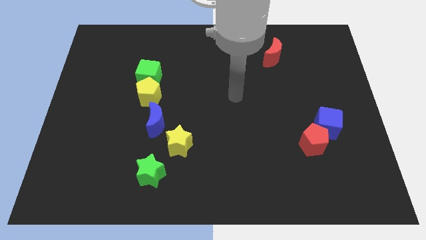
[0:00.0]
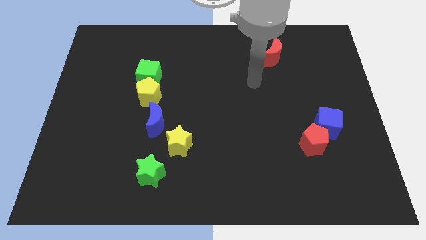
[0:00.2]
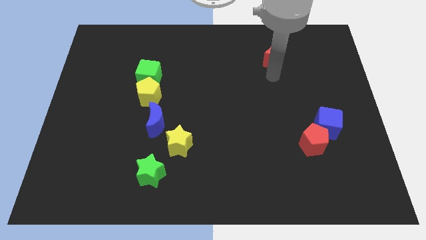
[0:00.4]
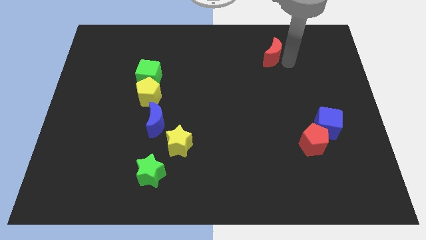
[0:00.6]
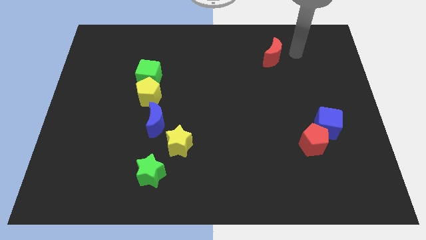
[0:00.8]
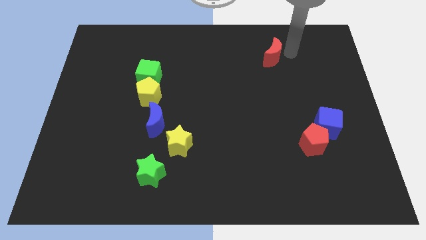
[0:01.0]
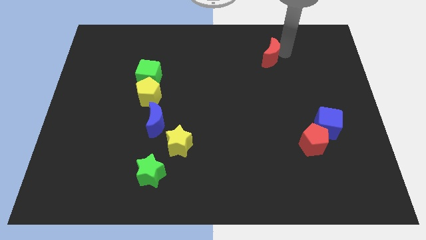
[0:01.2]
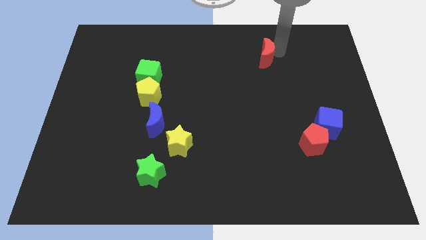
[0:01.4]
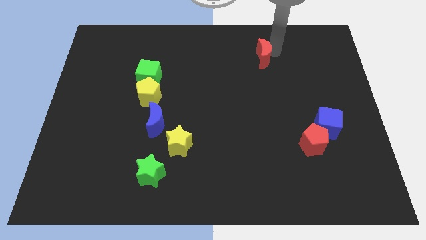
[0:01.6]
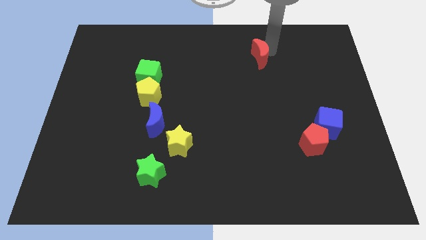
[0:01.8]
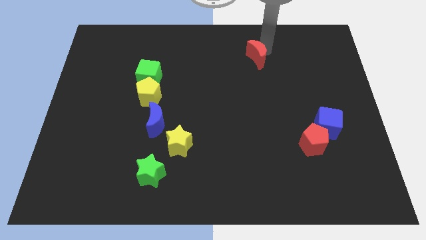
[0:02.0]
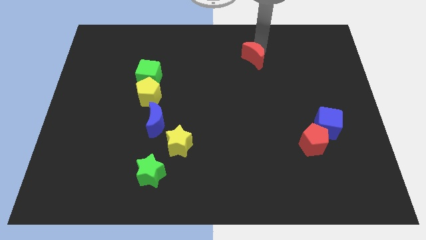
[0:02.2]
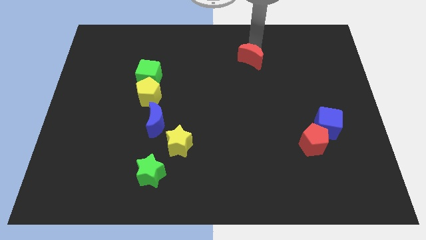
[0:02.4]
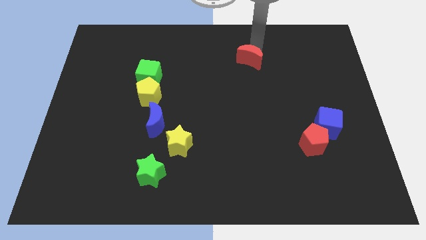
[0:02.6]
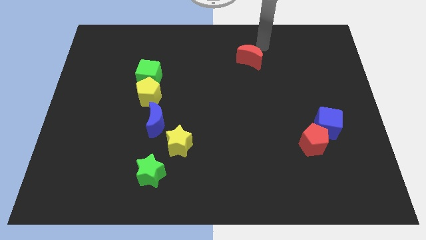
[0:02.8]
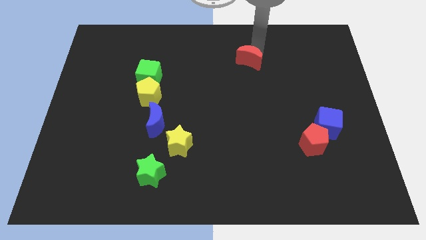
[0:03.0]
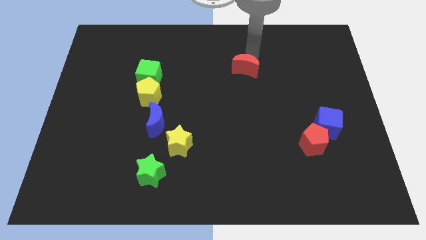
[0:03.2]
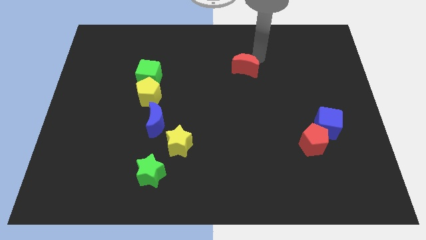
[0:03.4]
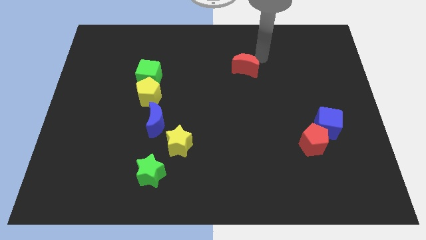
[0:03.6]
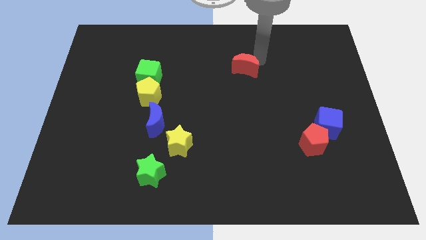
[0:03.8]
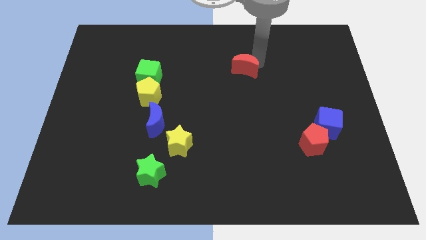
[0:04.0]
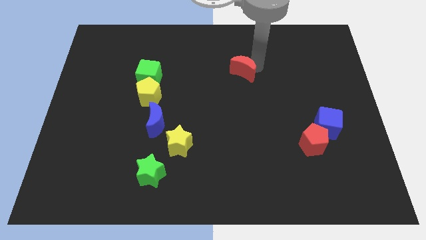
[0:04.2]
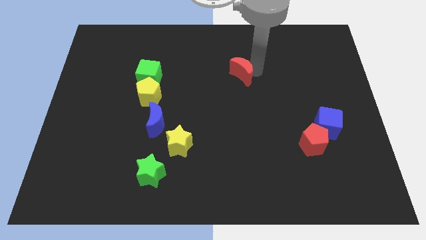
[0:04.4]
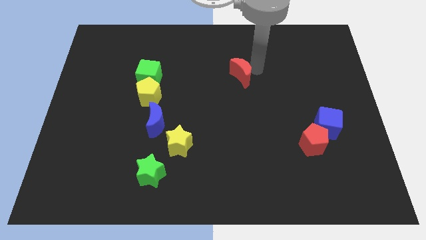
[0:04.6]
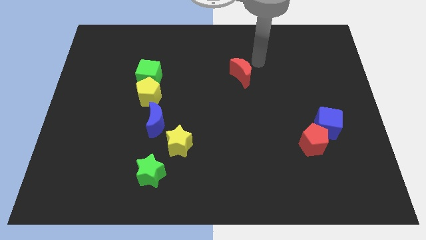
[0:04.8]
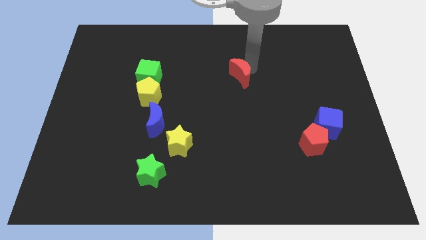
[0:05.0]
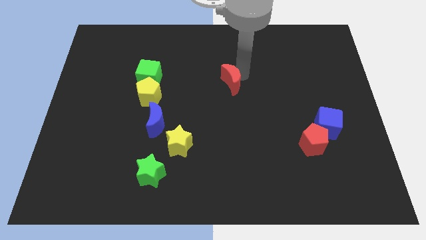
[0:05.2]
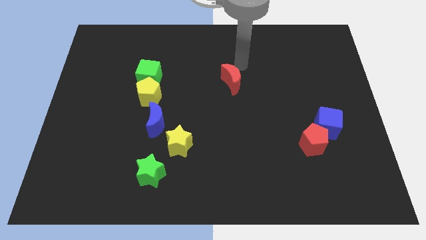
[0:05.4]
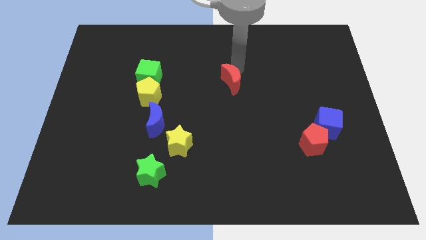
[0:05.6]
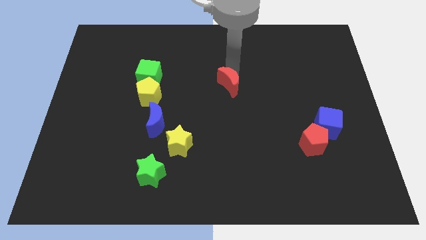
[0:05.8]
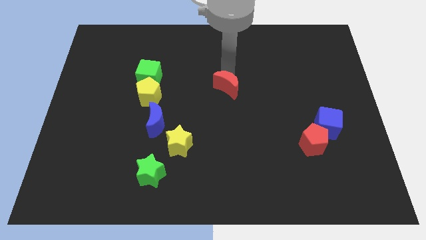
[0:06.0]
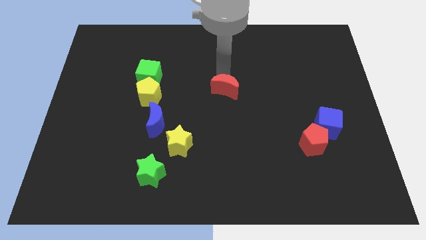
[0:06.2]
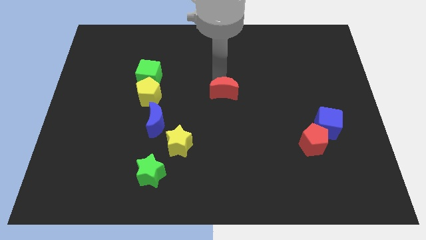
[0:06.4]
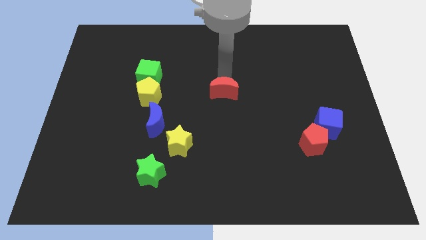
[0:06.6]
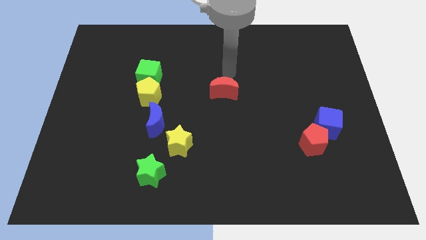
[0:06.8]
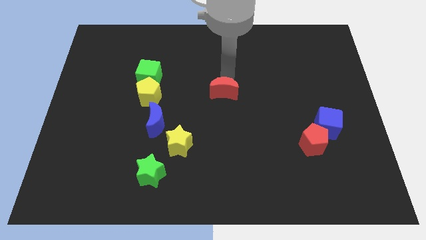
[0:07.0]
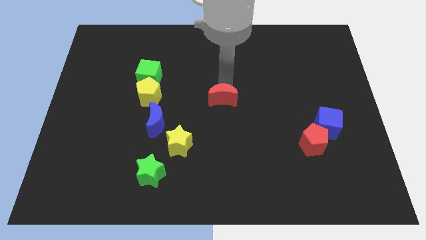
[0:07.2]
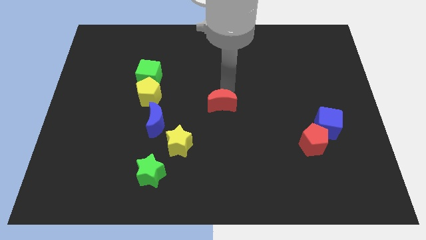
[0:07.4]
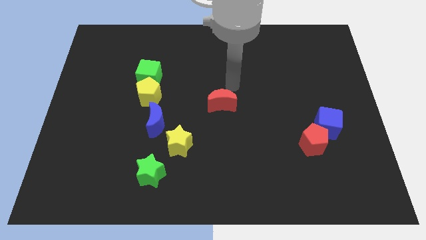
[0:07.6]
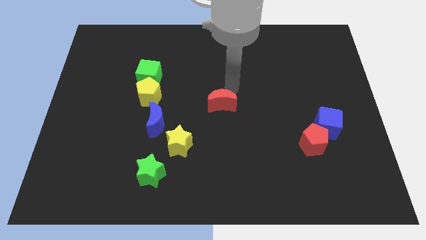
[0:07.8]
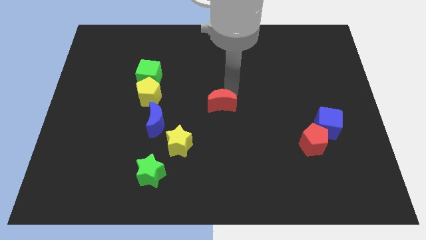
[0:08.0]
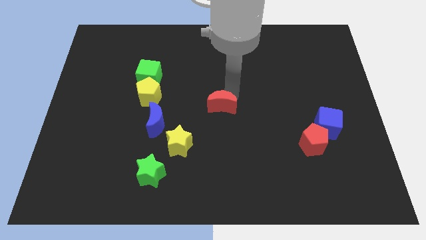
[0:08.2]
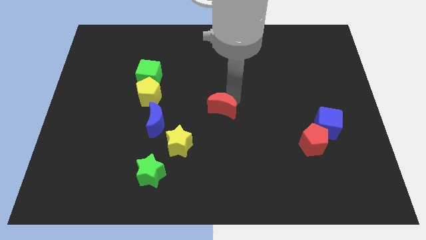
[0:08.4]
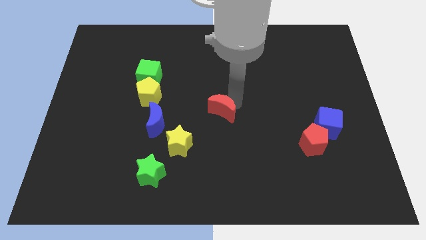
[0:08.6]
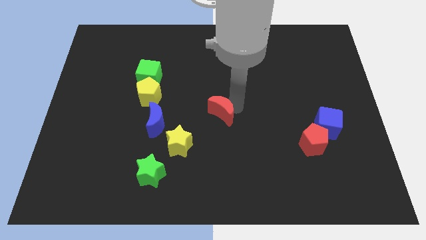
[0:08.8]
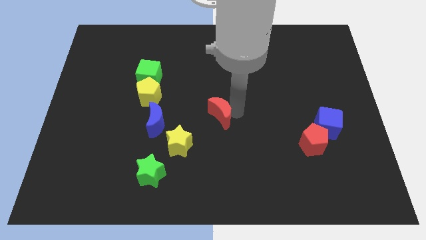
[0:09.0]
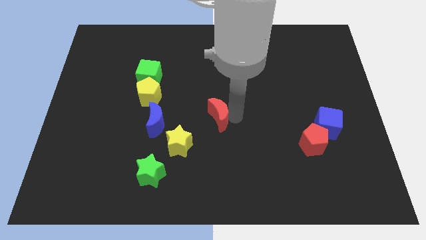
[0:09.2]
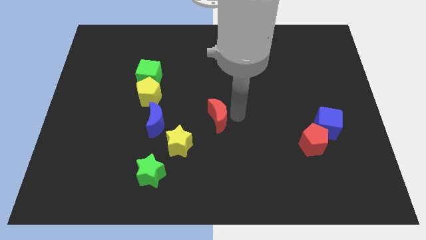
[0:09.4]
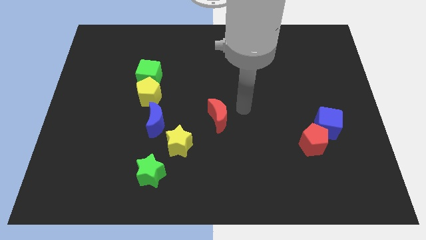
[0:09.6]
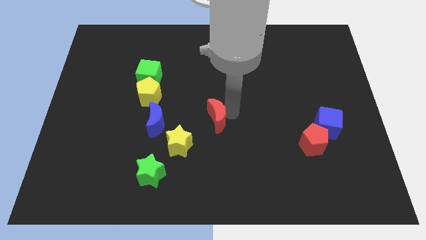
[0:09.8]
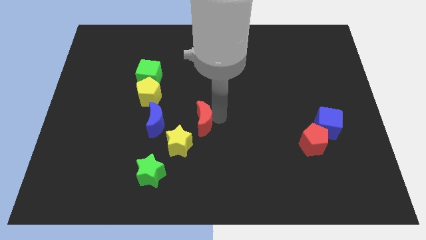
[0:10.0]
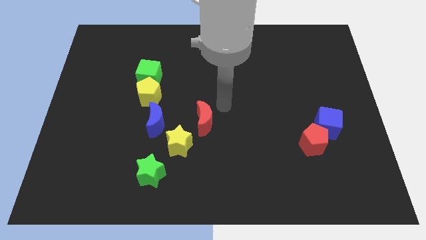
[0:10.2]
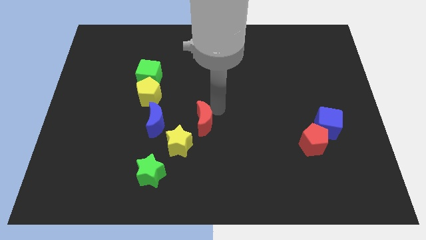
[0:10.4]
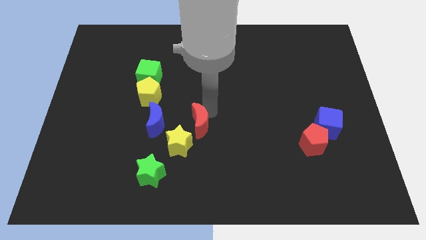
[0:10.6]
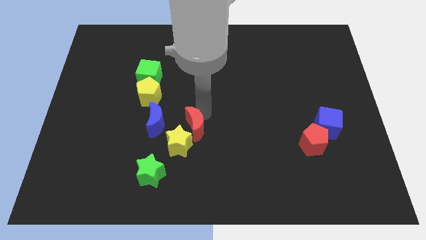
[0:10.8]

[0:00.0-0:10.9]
move the red moon close to the yellow star

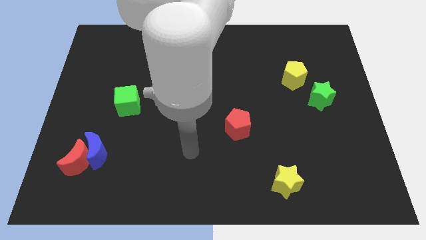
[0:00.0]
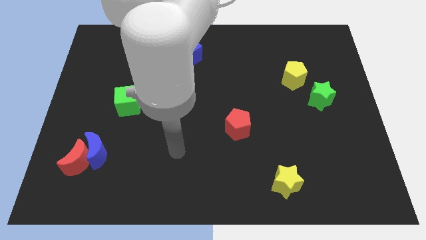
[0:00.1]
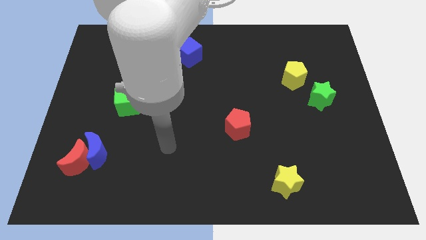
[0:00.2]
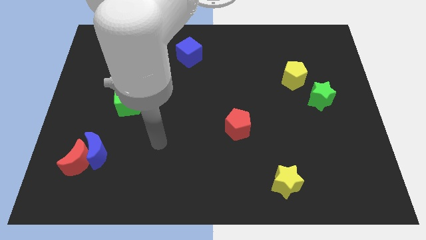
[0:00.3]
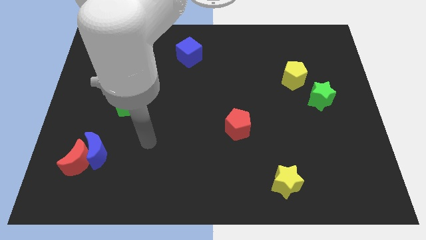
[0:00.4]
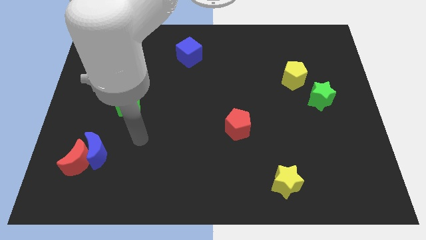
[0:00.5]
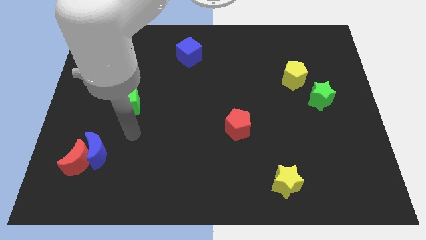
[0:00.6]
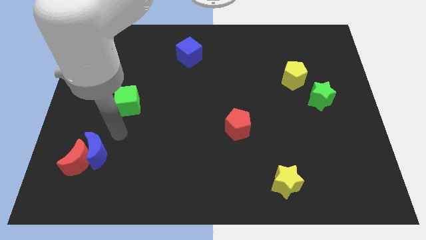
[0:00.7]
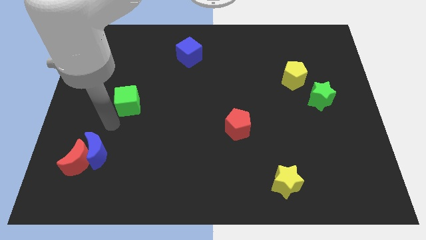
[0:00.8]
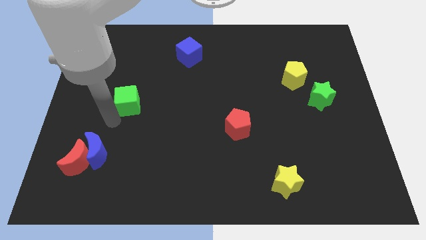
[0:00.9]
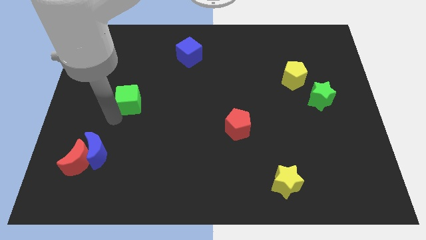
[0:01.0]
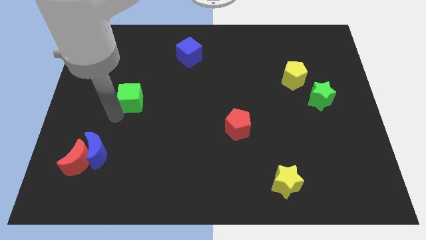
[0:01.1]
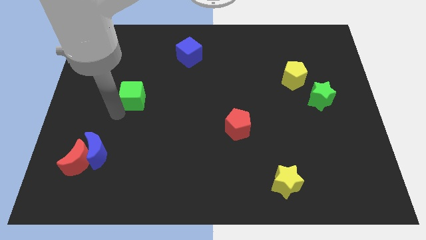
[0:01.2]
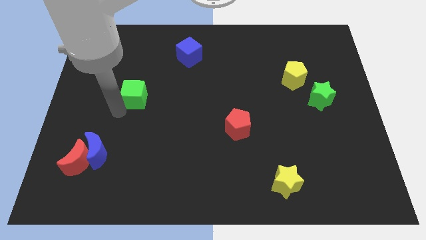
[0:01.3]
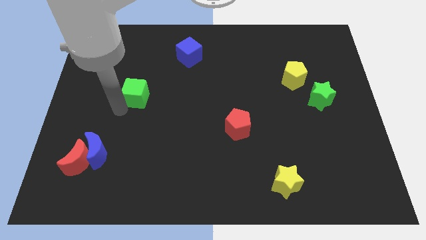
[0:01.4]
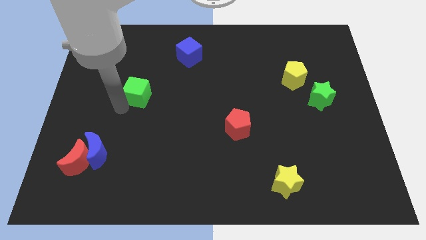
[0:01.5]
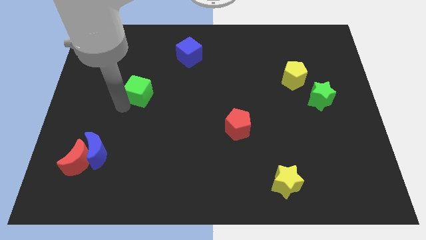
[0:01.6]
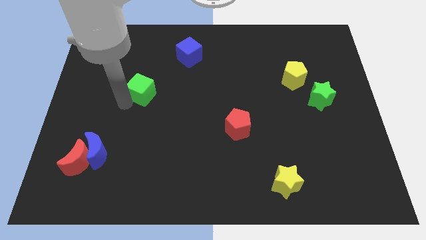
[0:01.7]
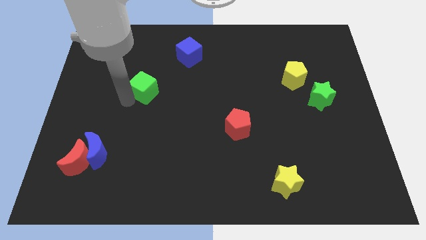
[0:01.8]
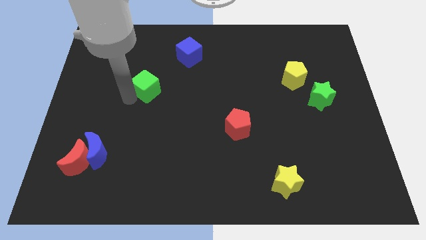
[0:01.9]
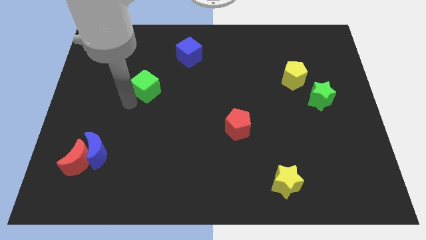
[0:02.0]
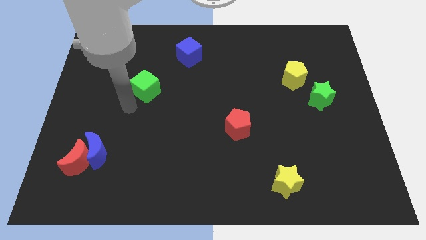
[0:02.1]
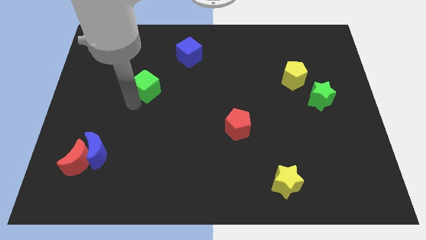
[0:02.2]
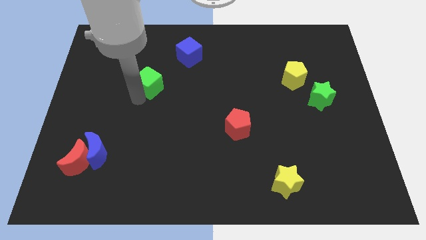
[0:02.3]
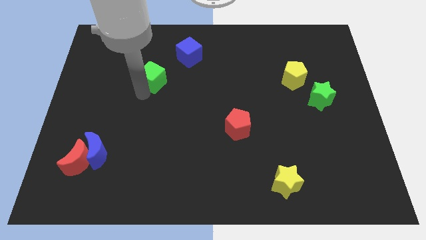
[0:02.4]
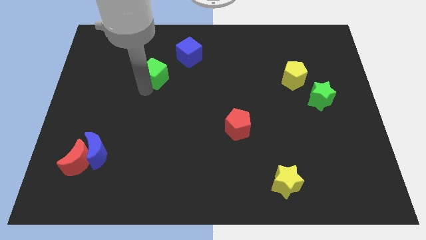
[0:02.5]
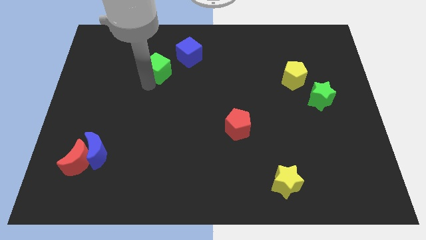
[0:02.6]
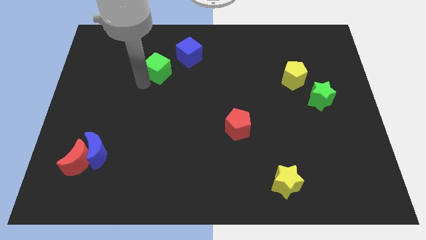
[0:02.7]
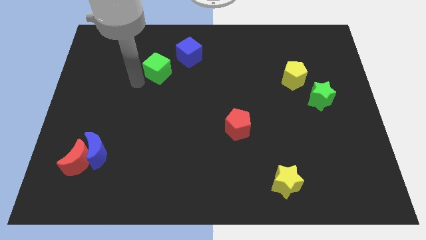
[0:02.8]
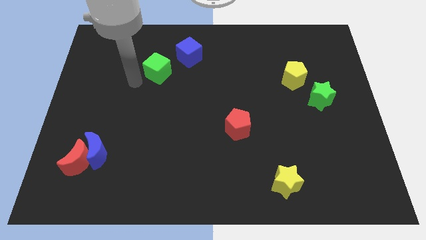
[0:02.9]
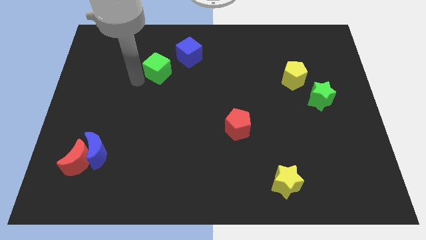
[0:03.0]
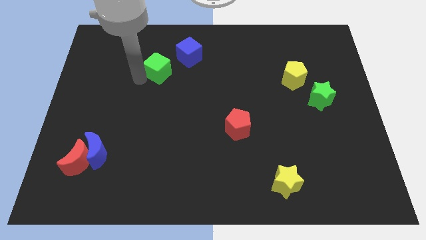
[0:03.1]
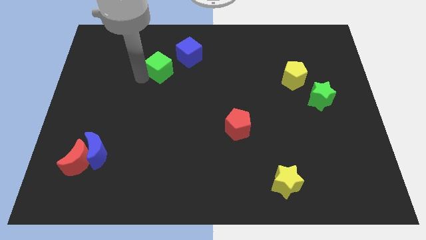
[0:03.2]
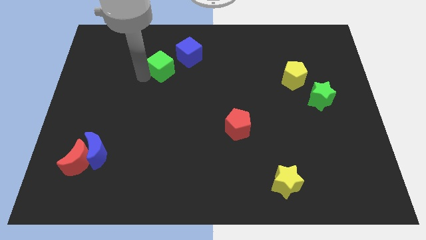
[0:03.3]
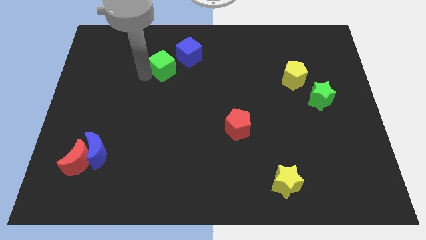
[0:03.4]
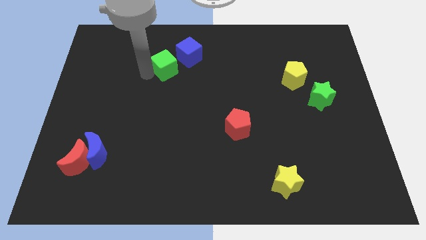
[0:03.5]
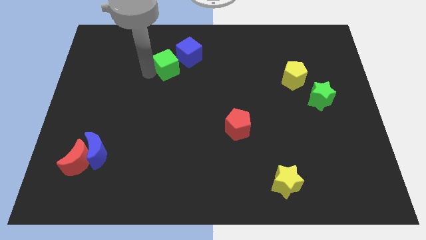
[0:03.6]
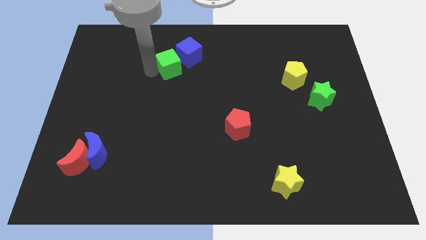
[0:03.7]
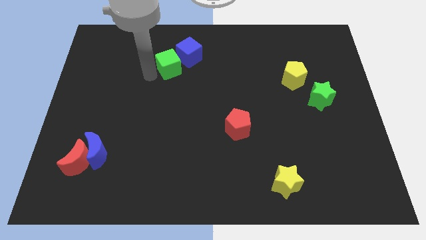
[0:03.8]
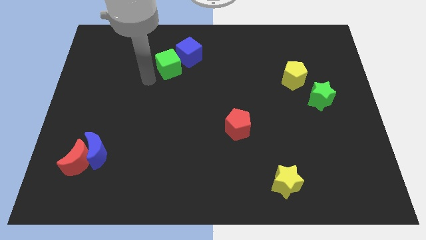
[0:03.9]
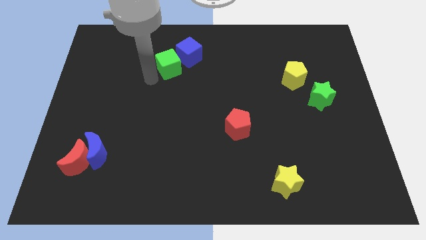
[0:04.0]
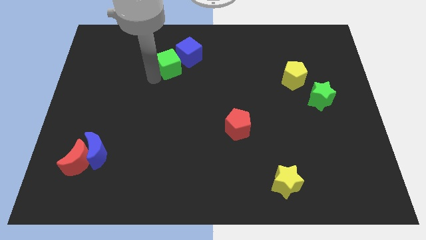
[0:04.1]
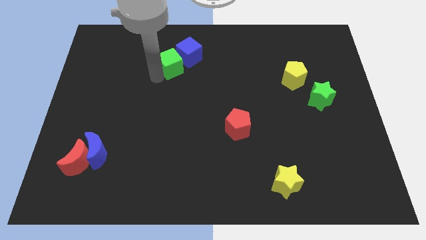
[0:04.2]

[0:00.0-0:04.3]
put the green cube towards the blue cube
